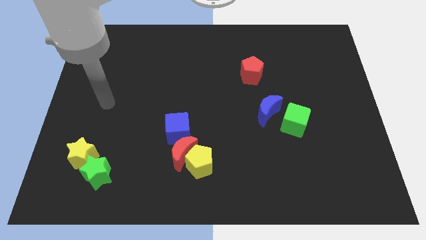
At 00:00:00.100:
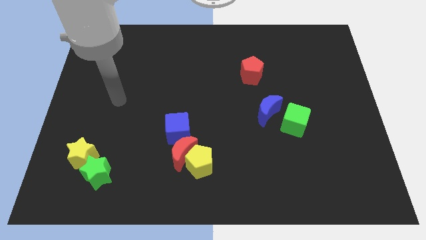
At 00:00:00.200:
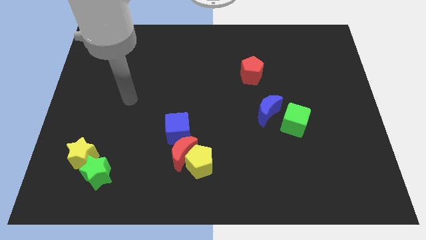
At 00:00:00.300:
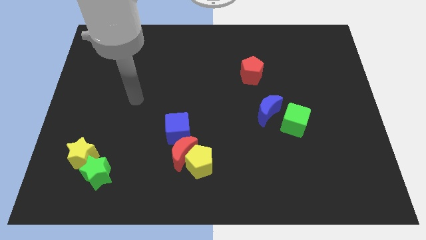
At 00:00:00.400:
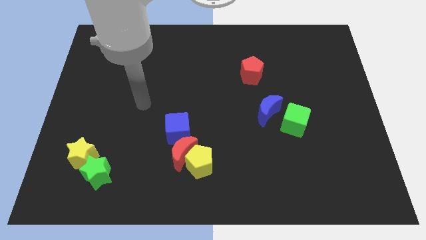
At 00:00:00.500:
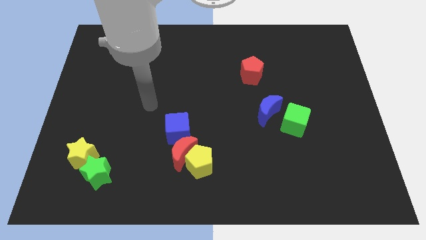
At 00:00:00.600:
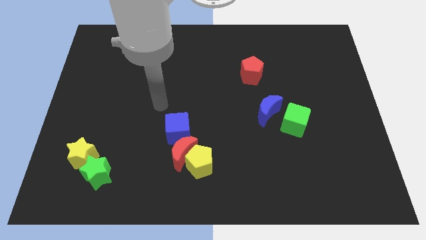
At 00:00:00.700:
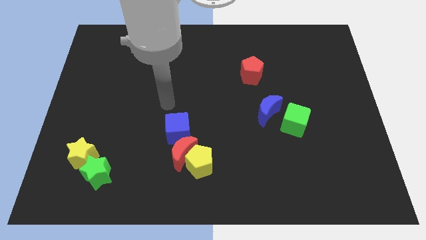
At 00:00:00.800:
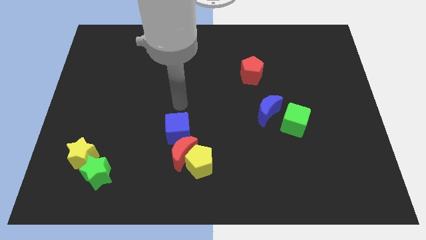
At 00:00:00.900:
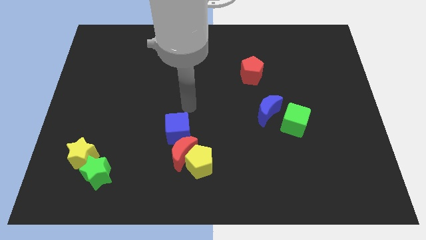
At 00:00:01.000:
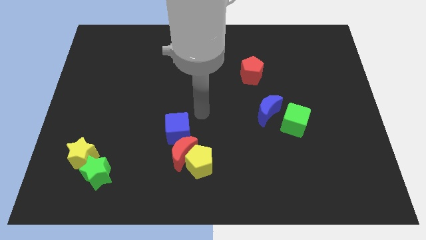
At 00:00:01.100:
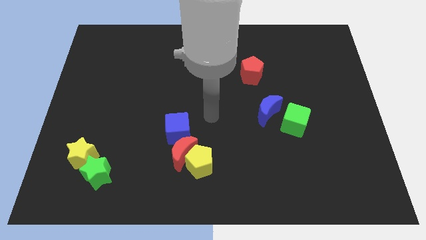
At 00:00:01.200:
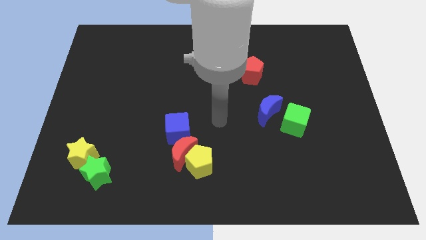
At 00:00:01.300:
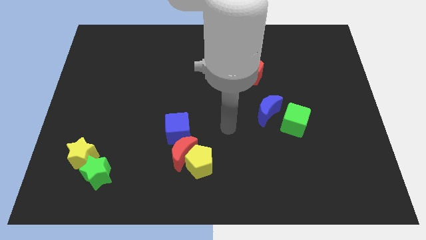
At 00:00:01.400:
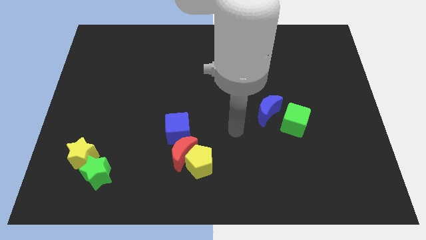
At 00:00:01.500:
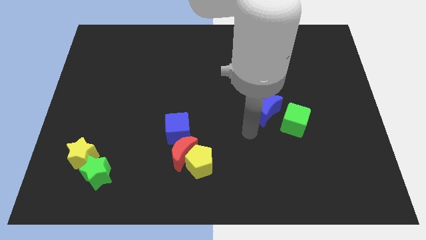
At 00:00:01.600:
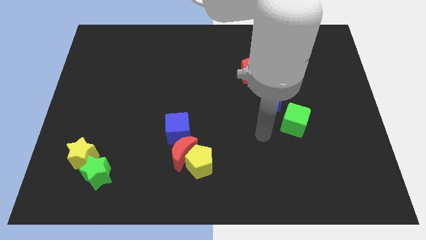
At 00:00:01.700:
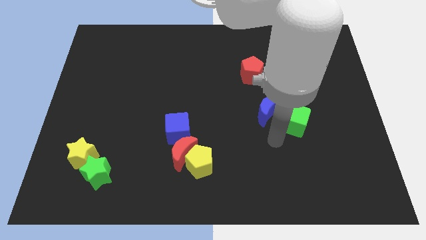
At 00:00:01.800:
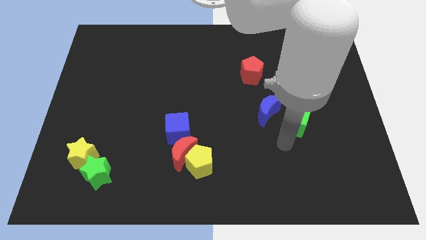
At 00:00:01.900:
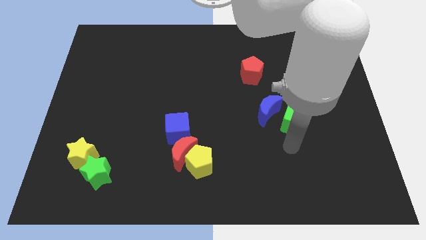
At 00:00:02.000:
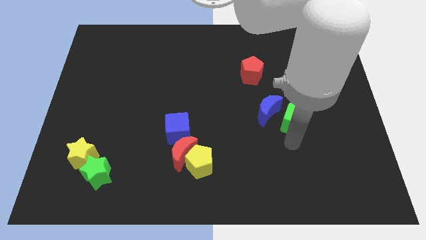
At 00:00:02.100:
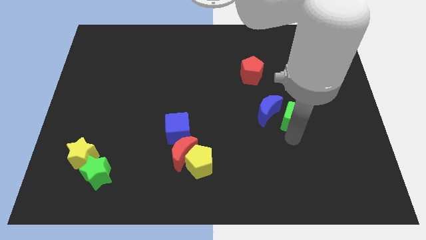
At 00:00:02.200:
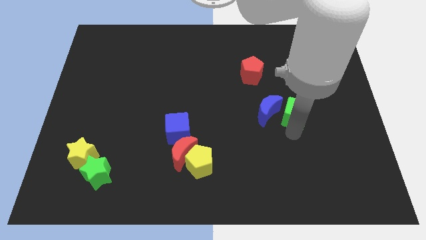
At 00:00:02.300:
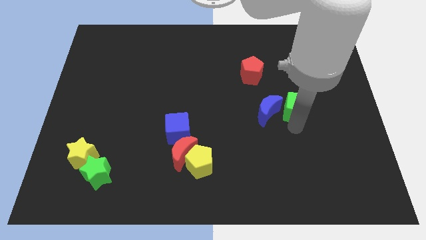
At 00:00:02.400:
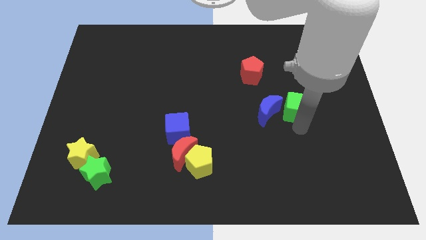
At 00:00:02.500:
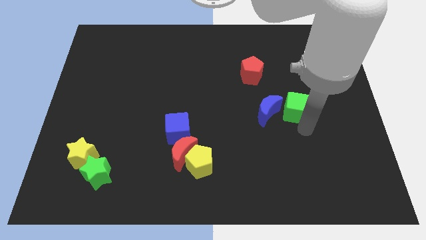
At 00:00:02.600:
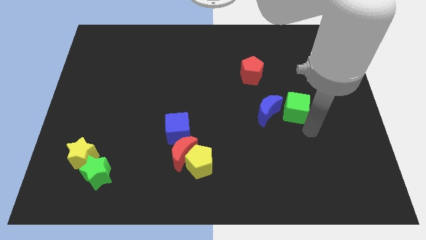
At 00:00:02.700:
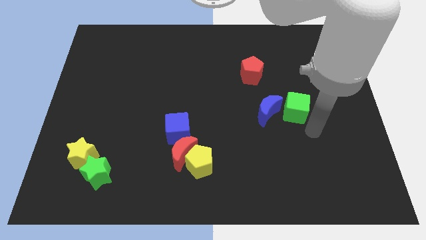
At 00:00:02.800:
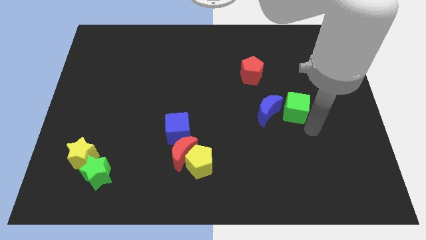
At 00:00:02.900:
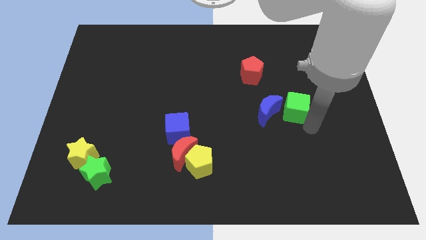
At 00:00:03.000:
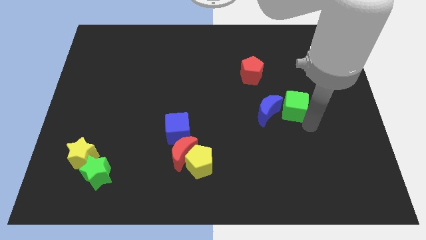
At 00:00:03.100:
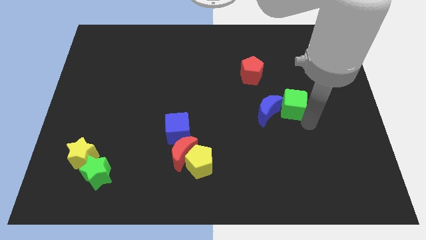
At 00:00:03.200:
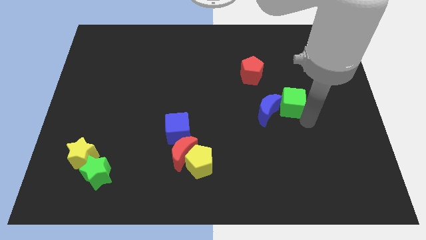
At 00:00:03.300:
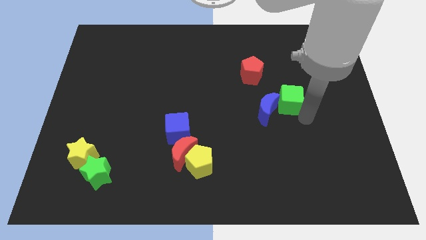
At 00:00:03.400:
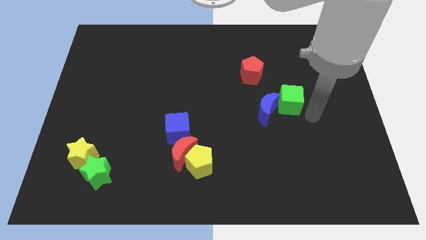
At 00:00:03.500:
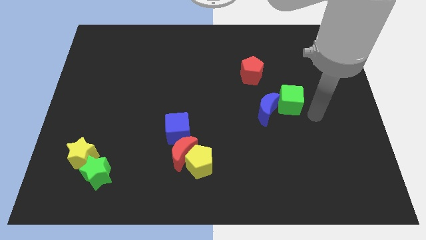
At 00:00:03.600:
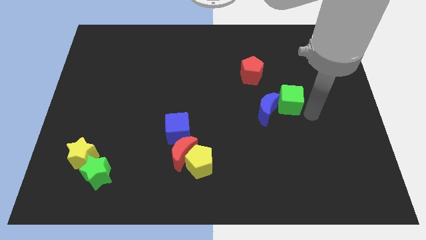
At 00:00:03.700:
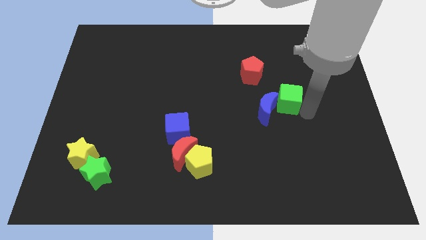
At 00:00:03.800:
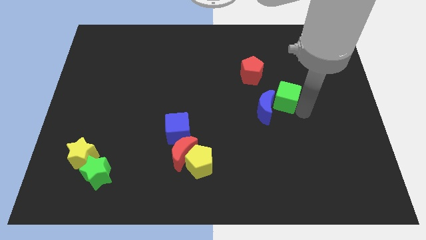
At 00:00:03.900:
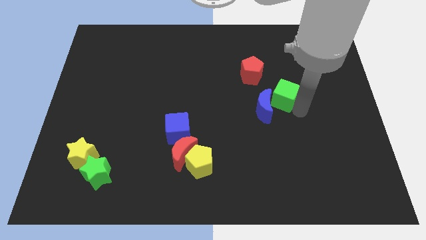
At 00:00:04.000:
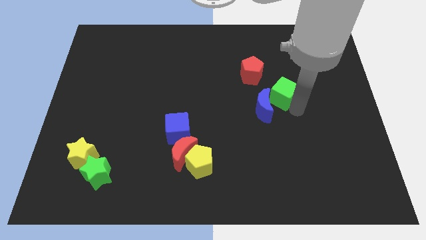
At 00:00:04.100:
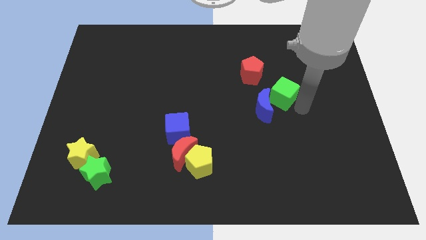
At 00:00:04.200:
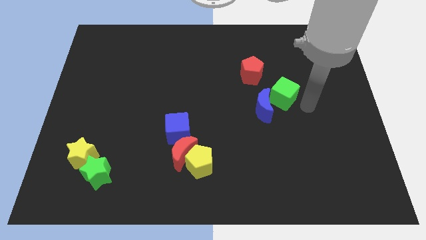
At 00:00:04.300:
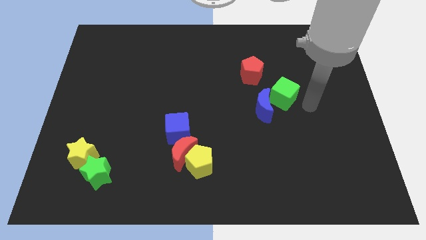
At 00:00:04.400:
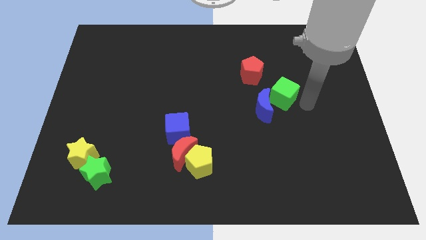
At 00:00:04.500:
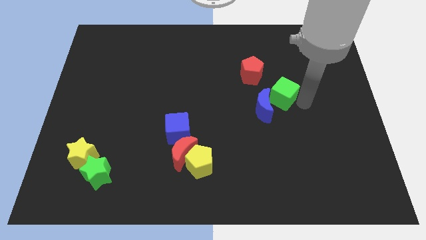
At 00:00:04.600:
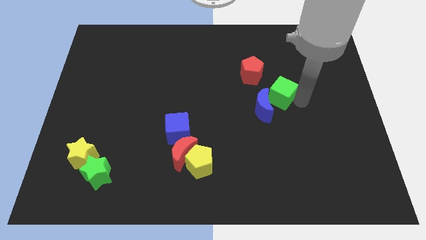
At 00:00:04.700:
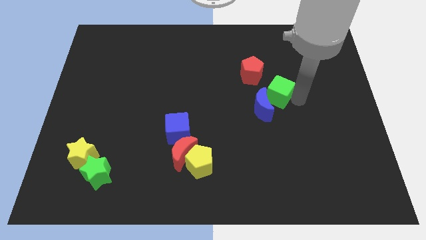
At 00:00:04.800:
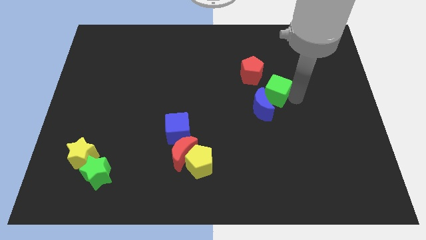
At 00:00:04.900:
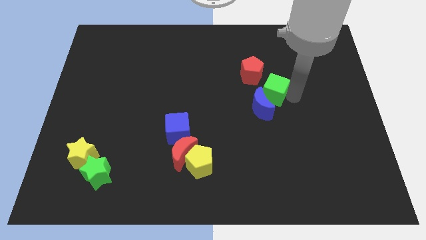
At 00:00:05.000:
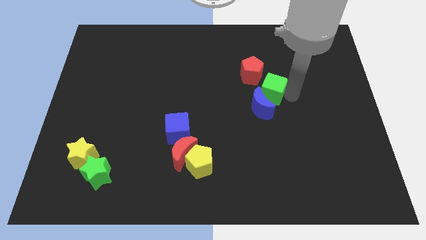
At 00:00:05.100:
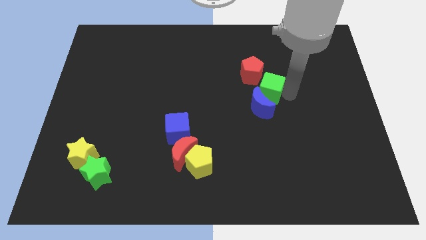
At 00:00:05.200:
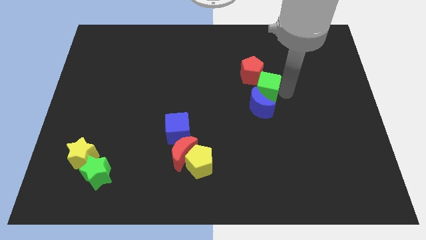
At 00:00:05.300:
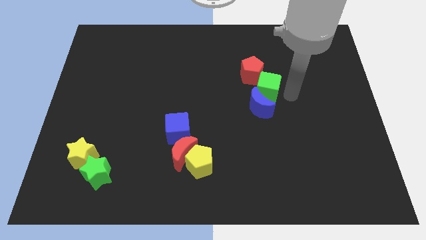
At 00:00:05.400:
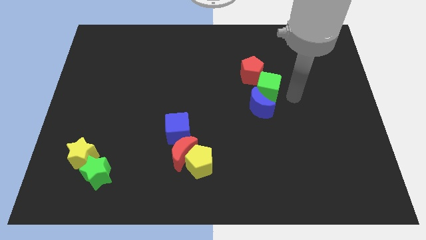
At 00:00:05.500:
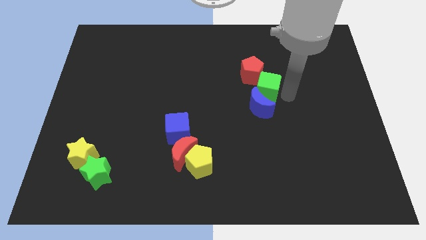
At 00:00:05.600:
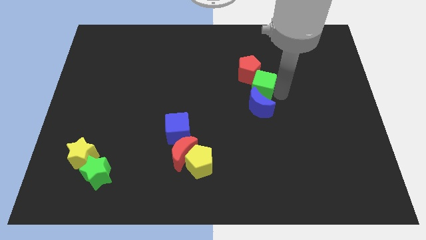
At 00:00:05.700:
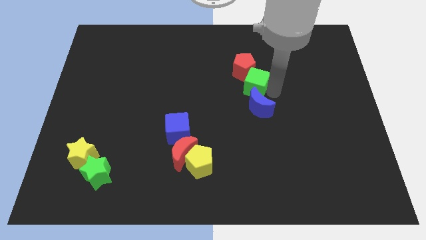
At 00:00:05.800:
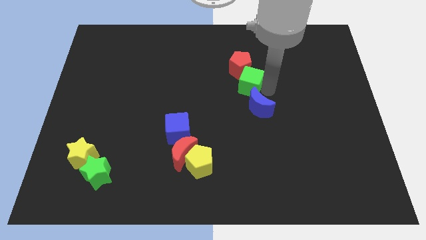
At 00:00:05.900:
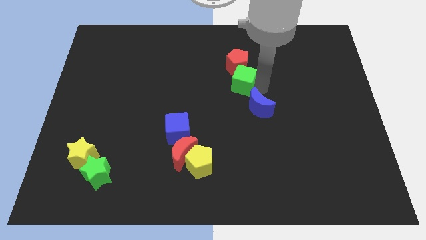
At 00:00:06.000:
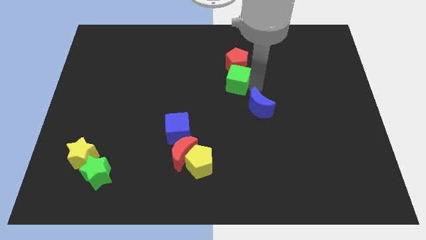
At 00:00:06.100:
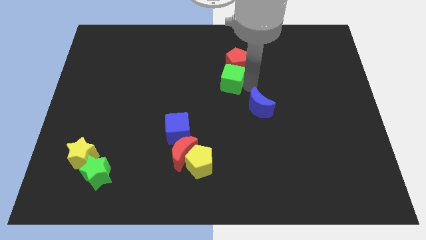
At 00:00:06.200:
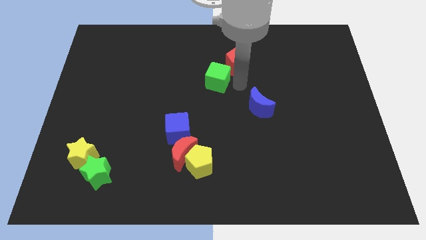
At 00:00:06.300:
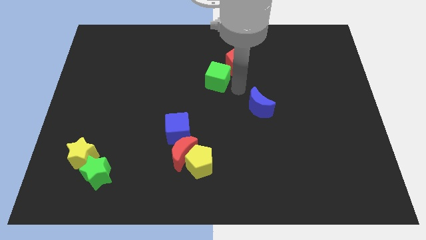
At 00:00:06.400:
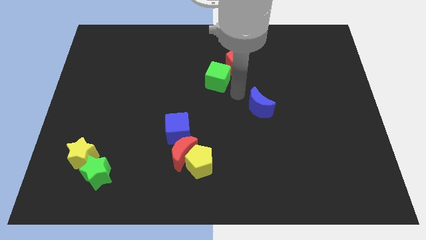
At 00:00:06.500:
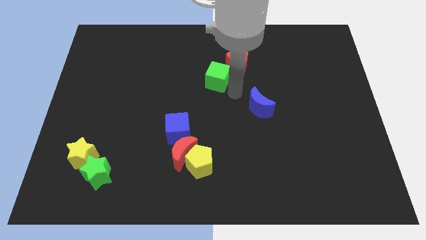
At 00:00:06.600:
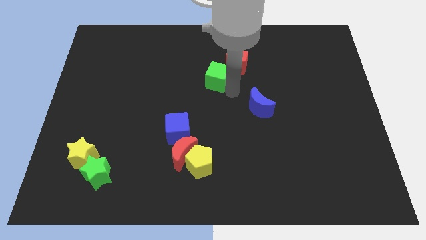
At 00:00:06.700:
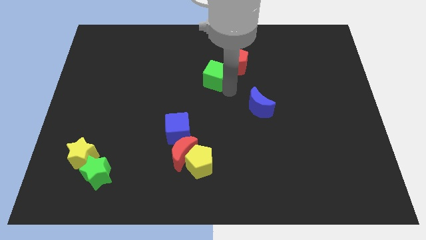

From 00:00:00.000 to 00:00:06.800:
move the green cube to the left side of the red pentagon
